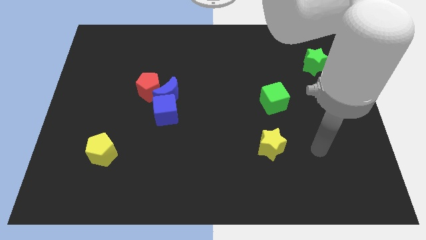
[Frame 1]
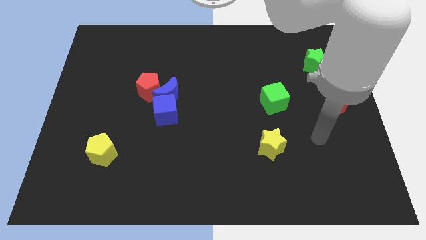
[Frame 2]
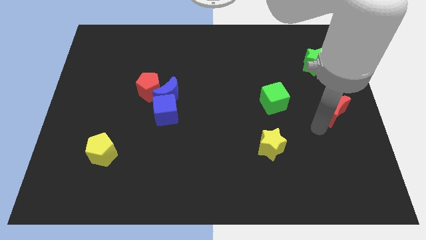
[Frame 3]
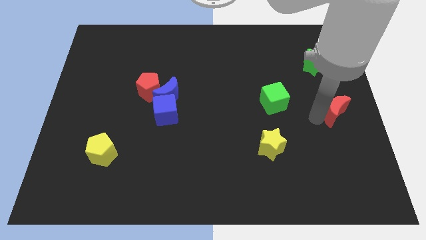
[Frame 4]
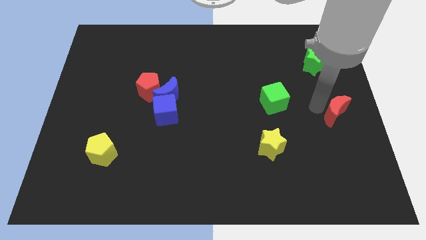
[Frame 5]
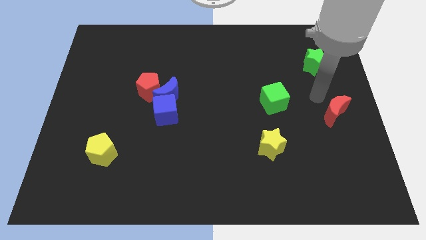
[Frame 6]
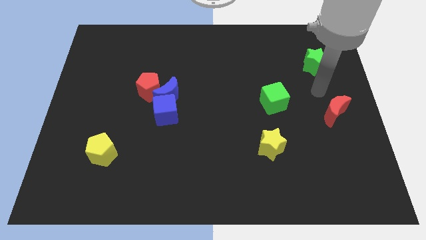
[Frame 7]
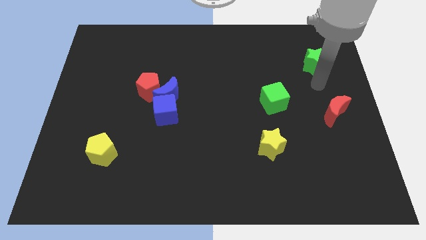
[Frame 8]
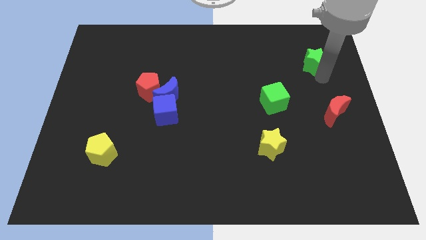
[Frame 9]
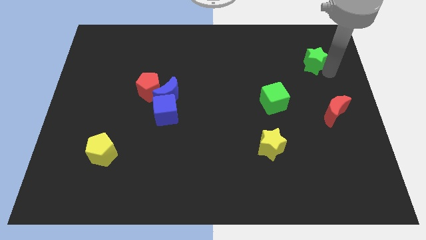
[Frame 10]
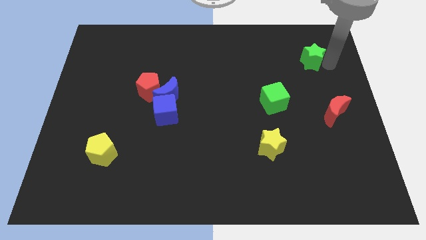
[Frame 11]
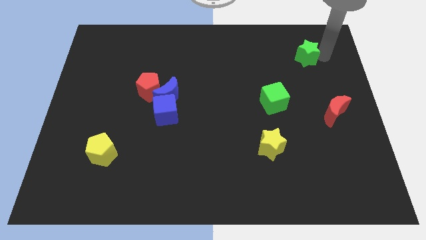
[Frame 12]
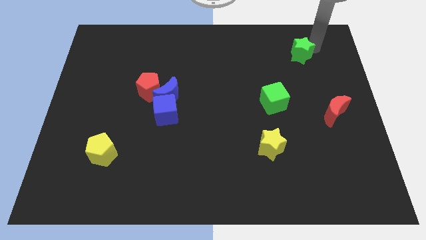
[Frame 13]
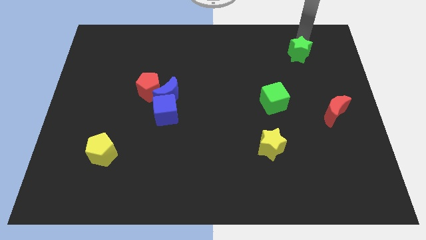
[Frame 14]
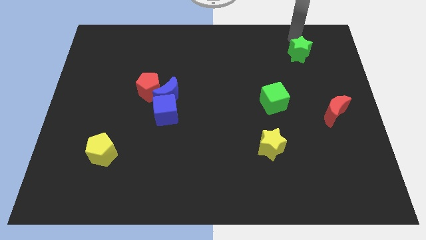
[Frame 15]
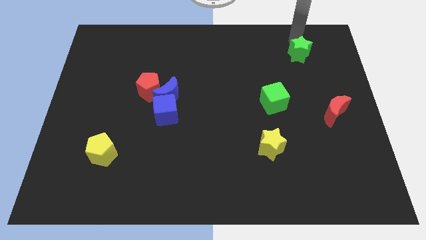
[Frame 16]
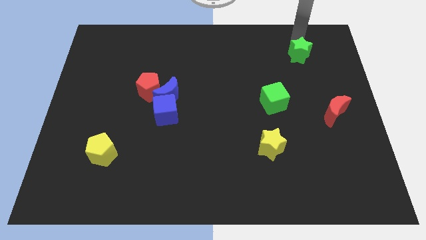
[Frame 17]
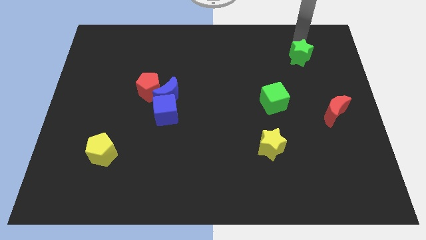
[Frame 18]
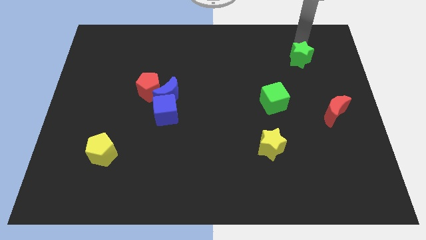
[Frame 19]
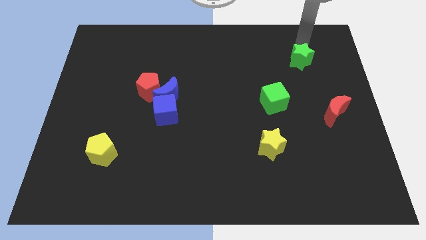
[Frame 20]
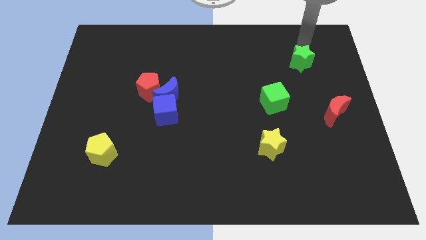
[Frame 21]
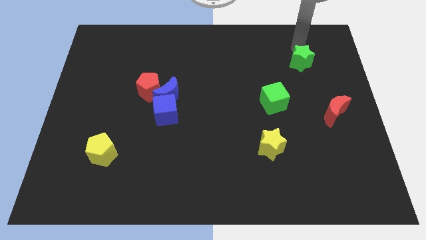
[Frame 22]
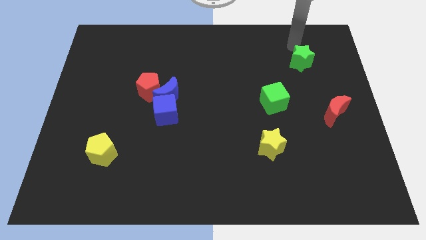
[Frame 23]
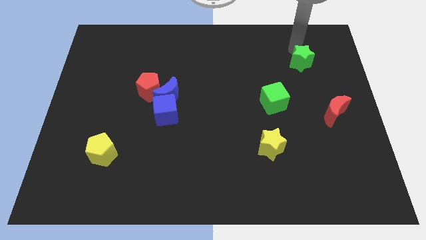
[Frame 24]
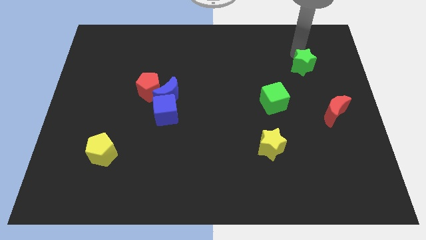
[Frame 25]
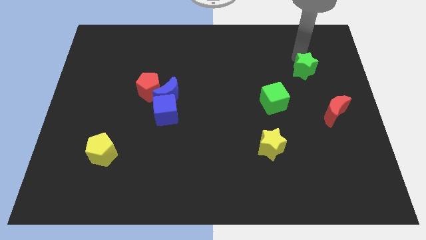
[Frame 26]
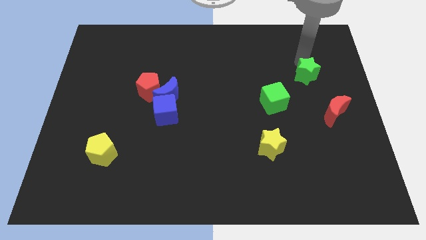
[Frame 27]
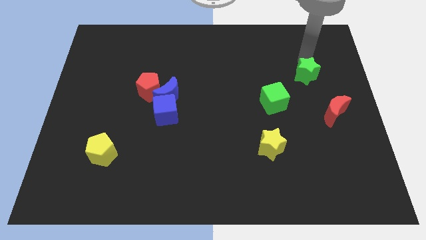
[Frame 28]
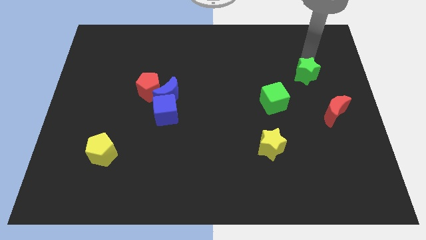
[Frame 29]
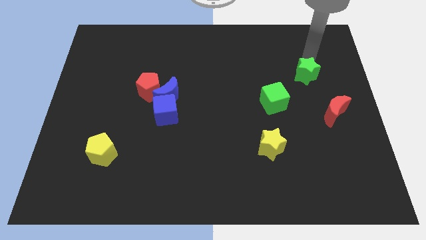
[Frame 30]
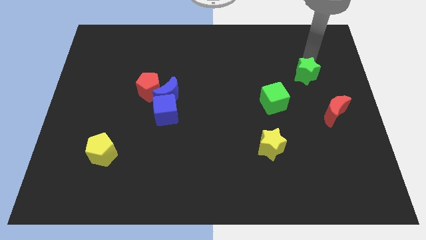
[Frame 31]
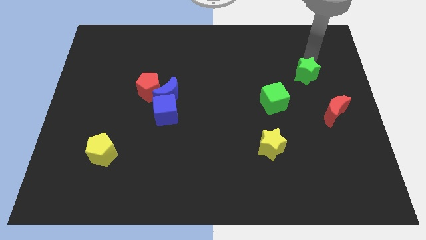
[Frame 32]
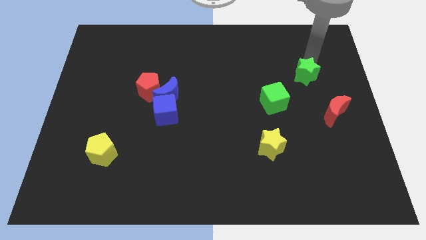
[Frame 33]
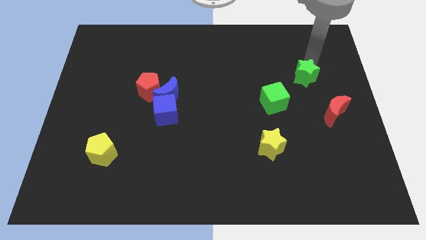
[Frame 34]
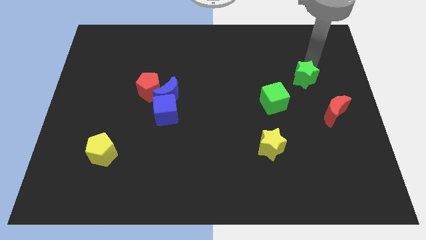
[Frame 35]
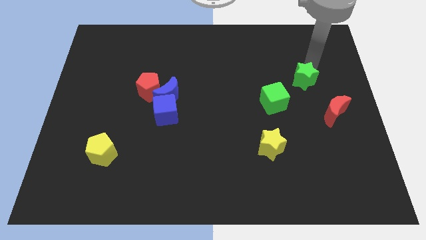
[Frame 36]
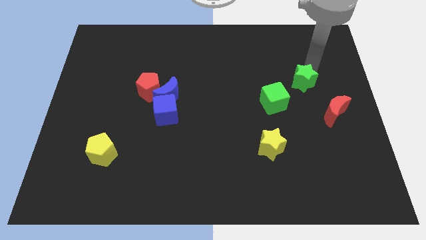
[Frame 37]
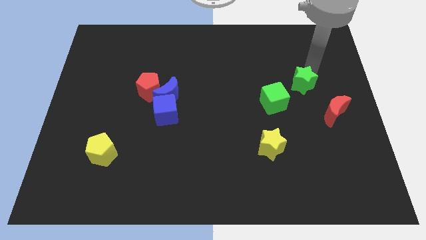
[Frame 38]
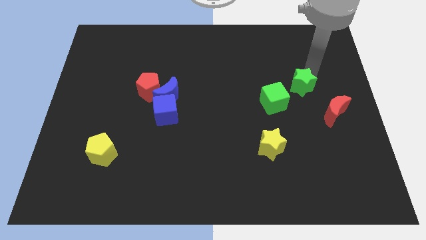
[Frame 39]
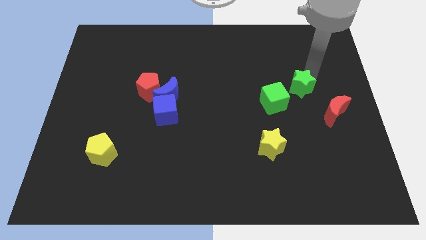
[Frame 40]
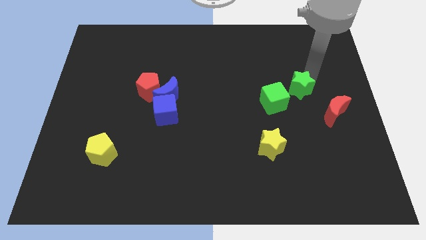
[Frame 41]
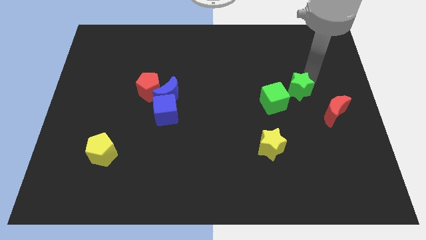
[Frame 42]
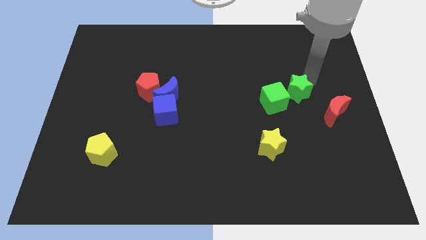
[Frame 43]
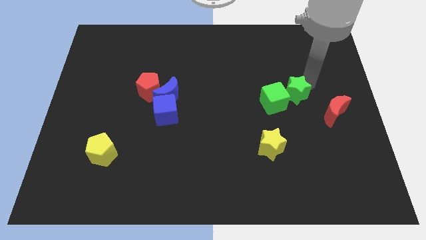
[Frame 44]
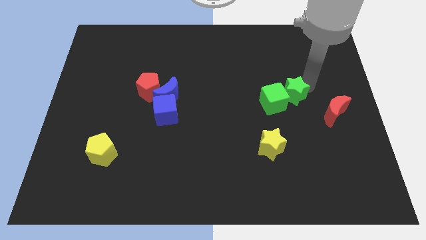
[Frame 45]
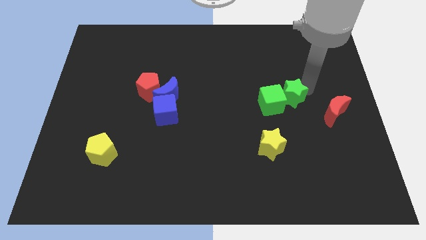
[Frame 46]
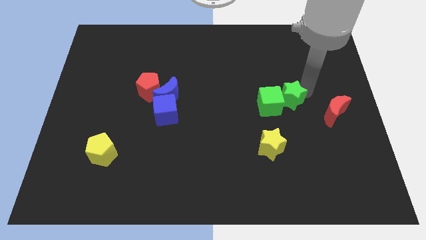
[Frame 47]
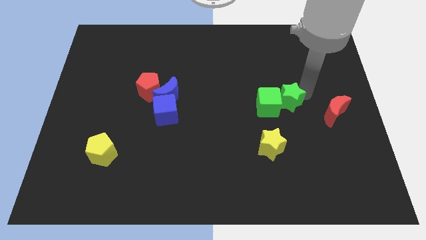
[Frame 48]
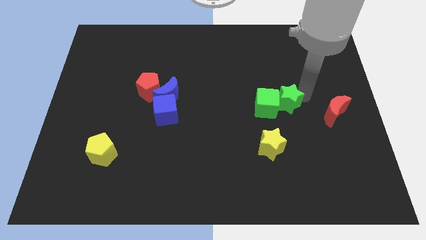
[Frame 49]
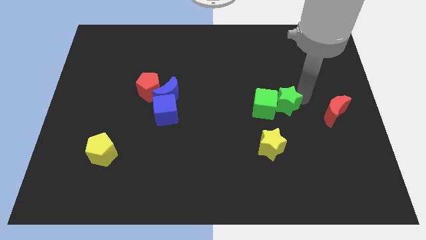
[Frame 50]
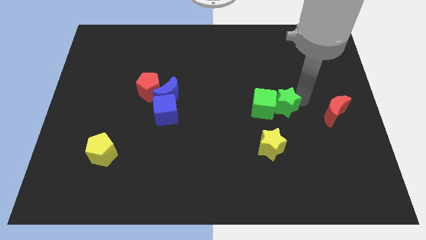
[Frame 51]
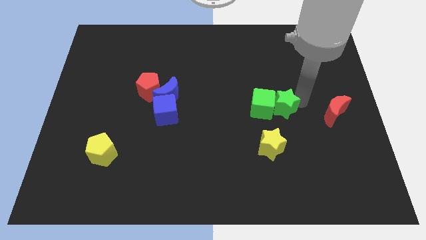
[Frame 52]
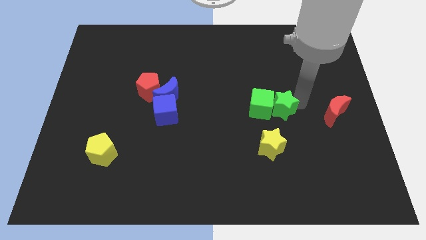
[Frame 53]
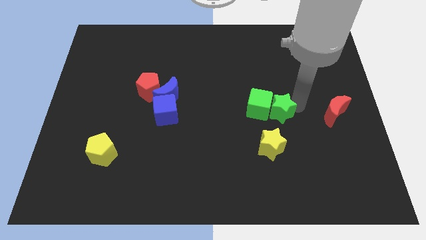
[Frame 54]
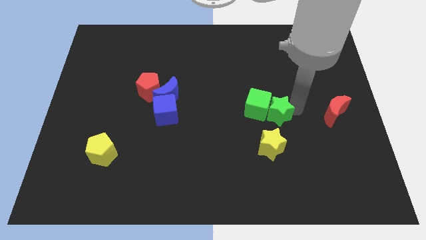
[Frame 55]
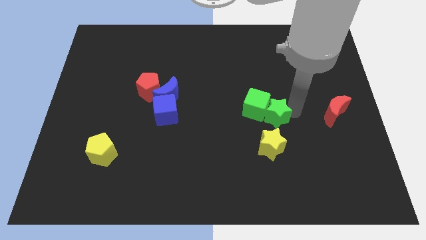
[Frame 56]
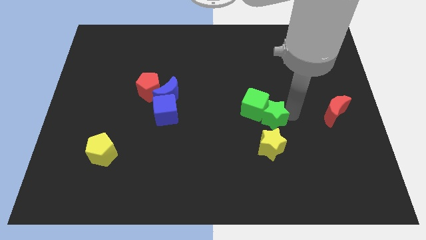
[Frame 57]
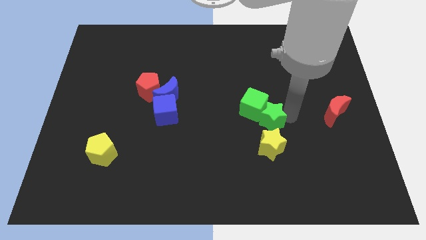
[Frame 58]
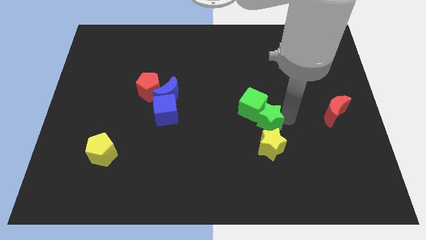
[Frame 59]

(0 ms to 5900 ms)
slide the green star to the yellow star

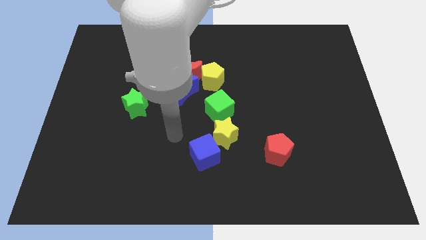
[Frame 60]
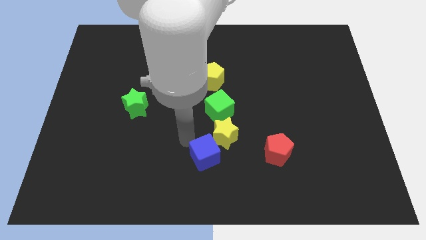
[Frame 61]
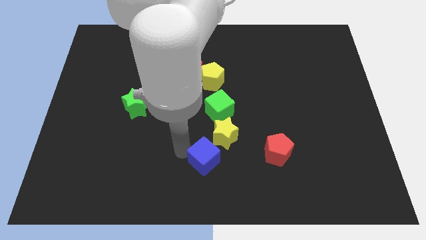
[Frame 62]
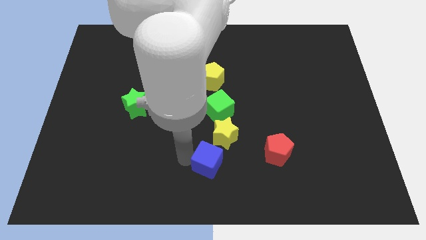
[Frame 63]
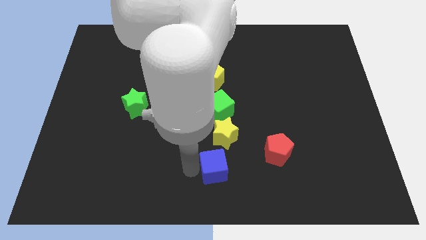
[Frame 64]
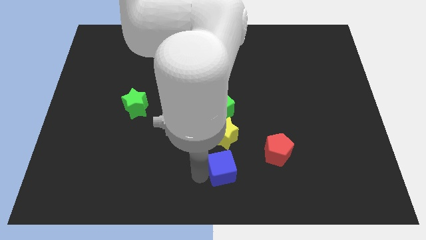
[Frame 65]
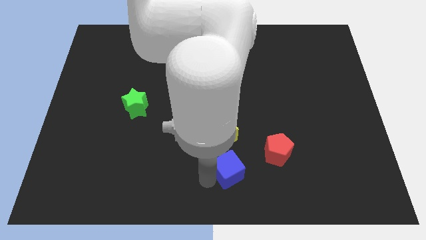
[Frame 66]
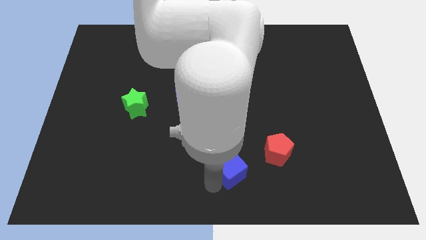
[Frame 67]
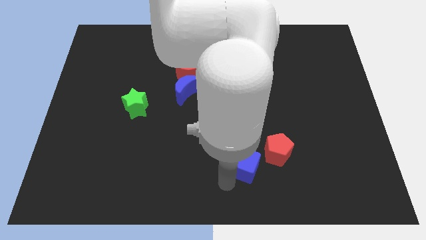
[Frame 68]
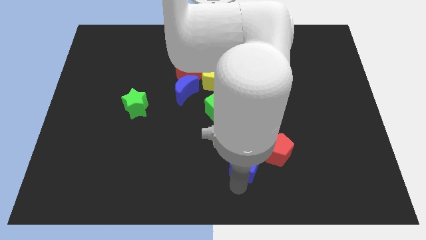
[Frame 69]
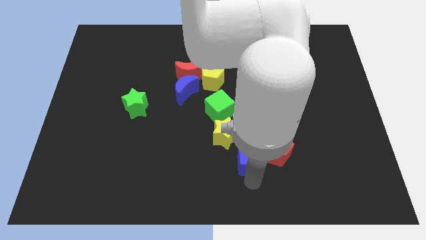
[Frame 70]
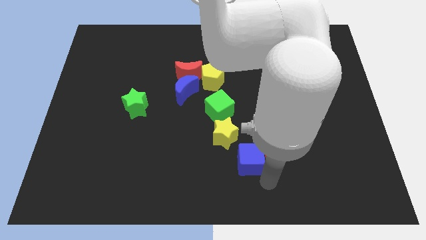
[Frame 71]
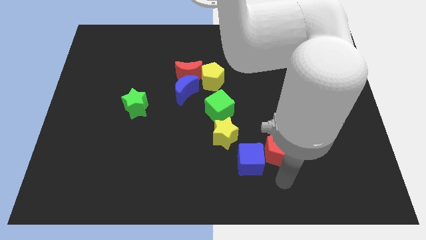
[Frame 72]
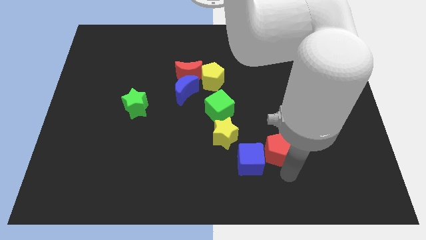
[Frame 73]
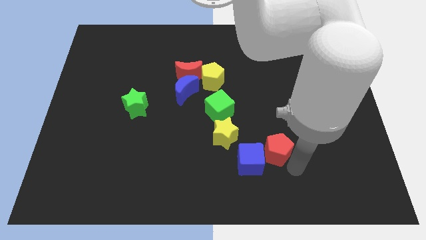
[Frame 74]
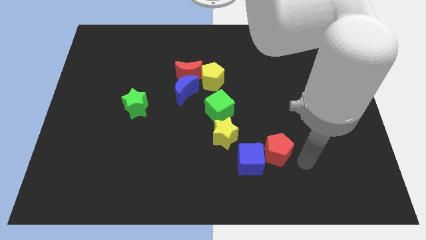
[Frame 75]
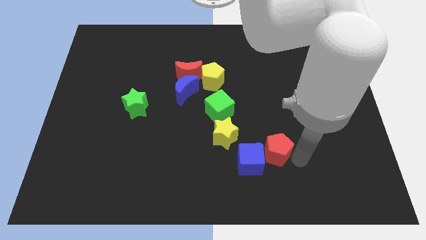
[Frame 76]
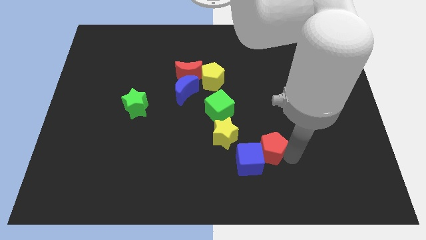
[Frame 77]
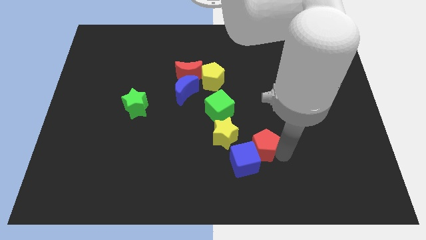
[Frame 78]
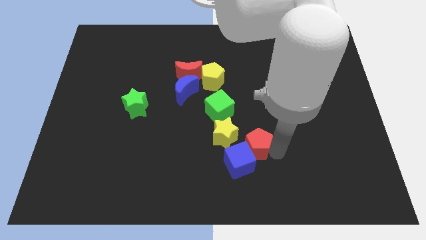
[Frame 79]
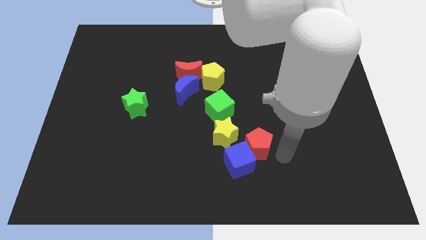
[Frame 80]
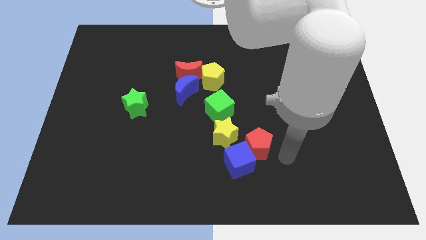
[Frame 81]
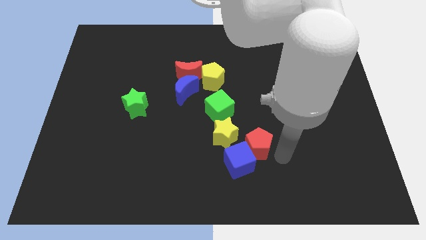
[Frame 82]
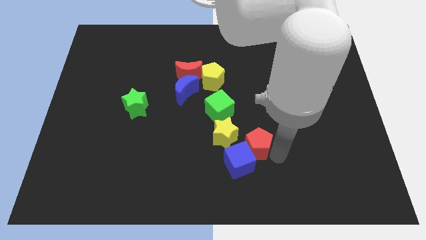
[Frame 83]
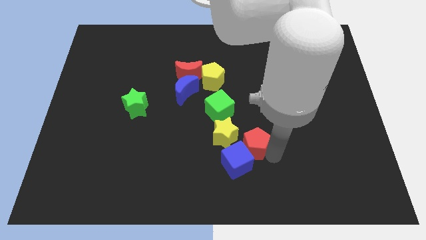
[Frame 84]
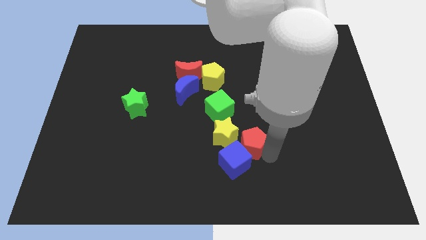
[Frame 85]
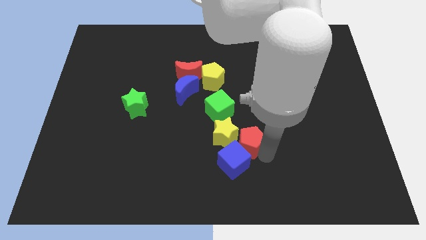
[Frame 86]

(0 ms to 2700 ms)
slide the red pentagon next to the yellow star
